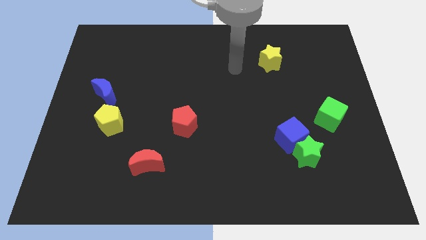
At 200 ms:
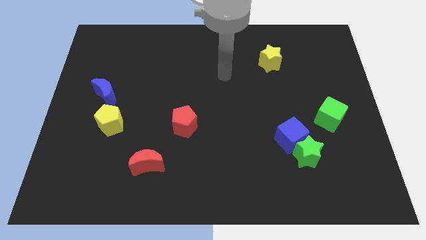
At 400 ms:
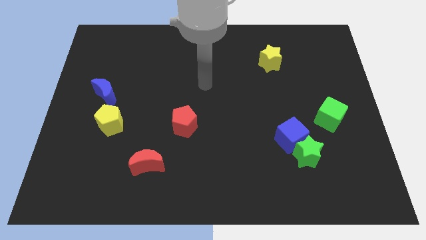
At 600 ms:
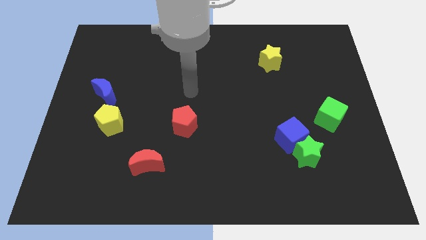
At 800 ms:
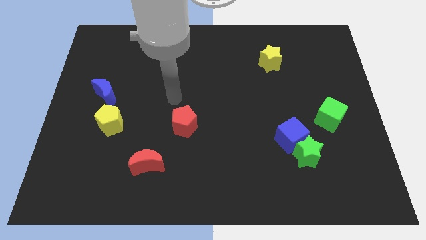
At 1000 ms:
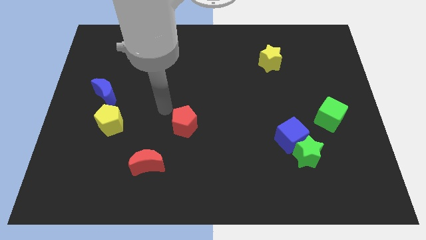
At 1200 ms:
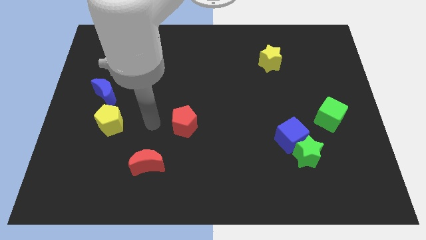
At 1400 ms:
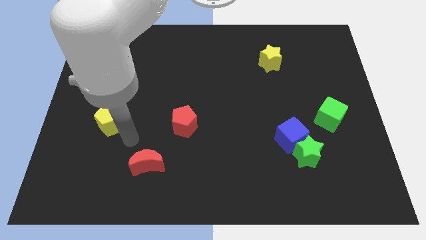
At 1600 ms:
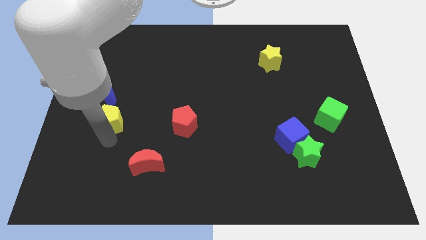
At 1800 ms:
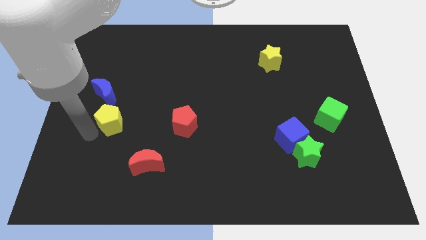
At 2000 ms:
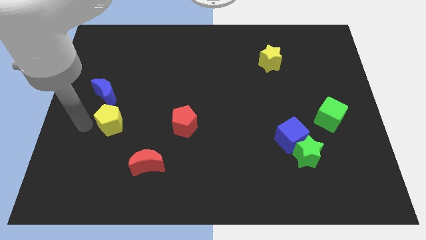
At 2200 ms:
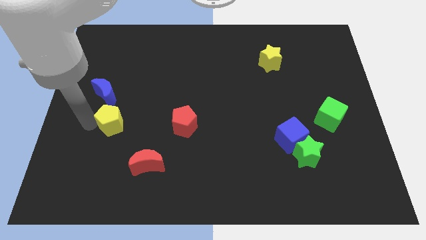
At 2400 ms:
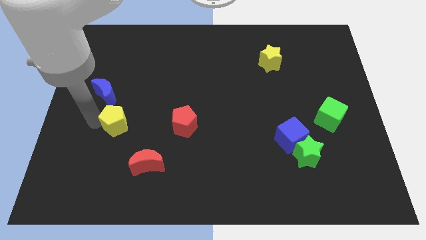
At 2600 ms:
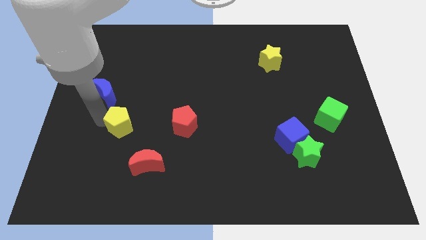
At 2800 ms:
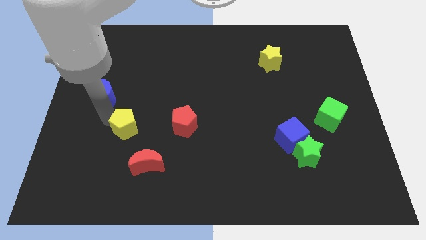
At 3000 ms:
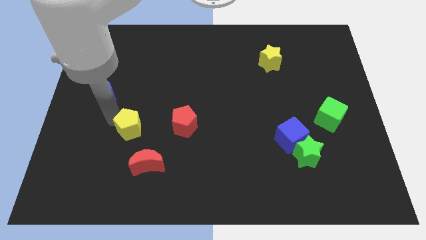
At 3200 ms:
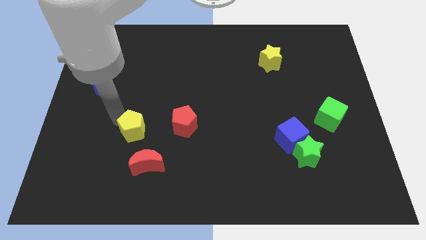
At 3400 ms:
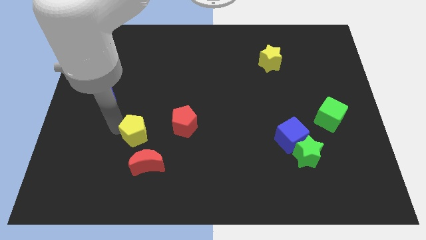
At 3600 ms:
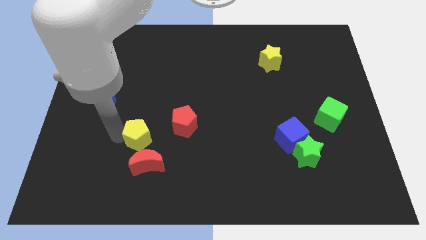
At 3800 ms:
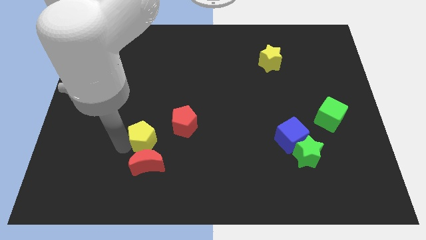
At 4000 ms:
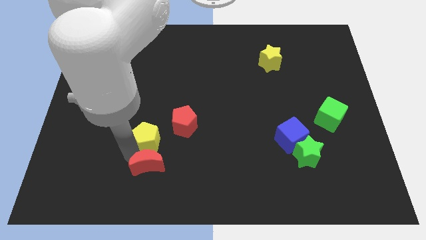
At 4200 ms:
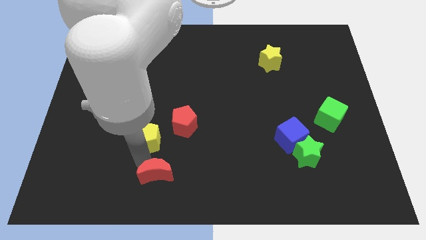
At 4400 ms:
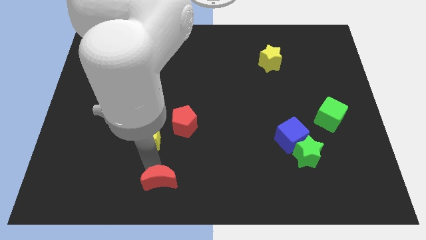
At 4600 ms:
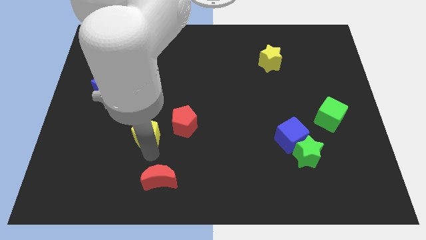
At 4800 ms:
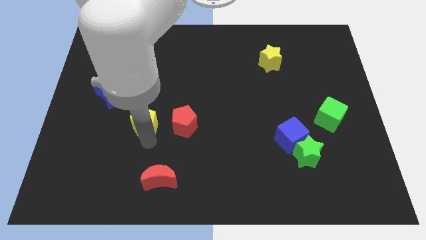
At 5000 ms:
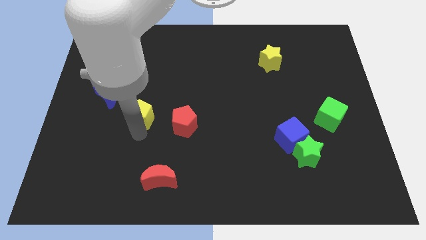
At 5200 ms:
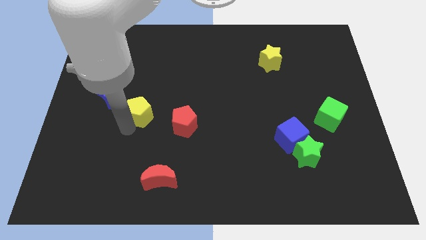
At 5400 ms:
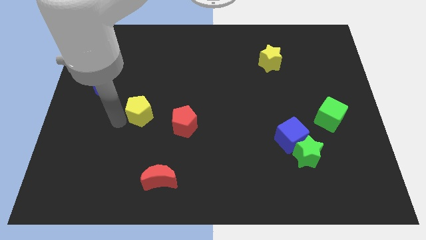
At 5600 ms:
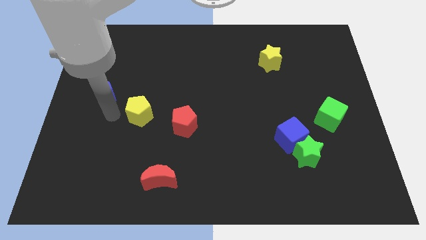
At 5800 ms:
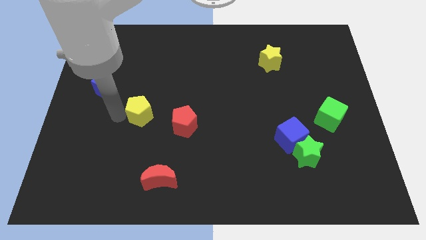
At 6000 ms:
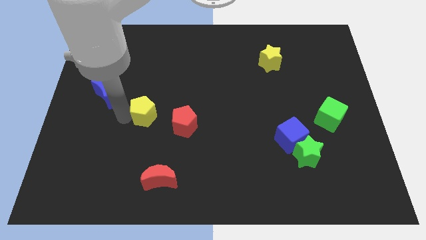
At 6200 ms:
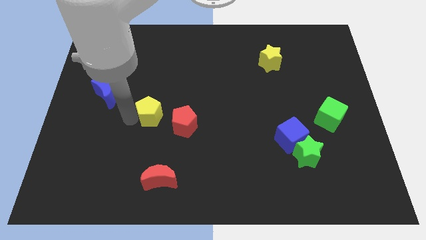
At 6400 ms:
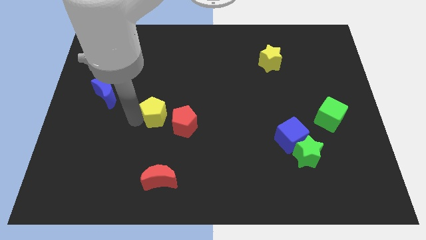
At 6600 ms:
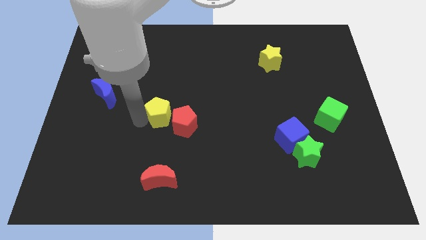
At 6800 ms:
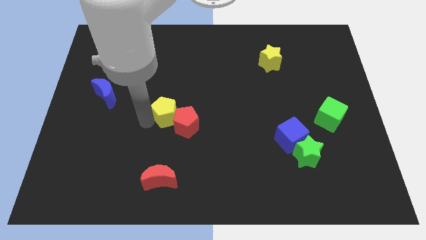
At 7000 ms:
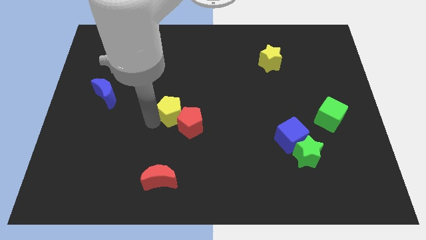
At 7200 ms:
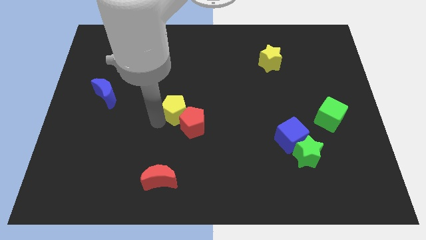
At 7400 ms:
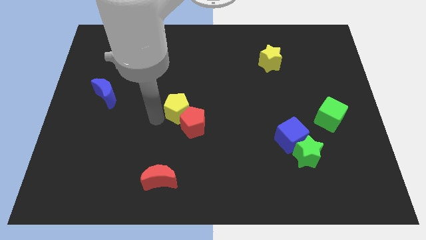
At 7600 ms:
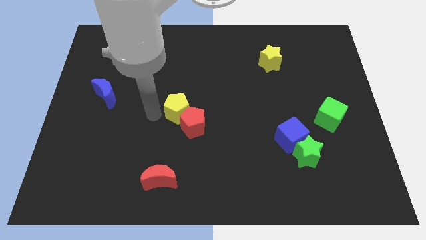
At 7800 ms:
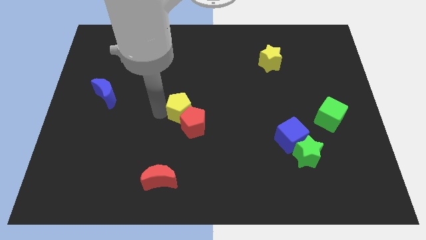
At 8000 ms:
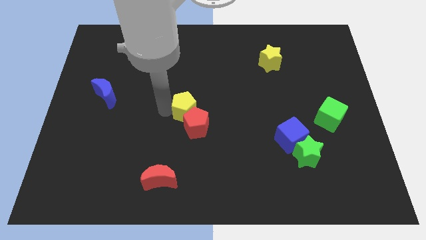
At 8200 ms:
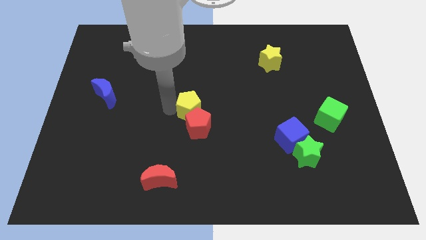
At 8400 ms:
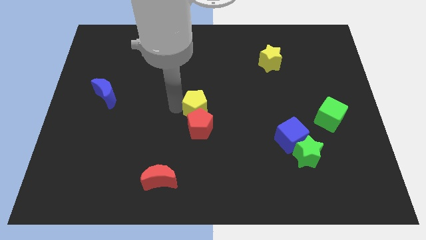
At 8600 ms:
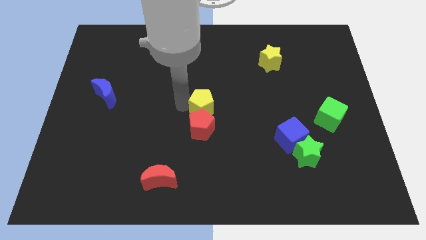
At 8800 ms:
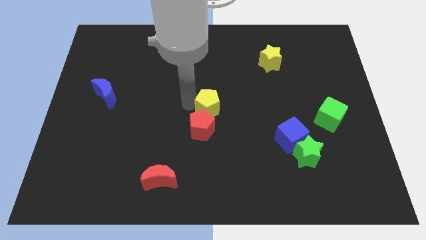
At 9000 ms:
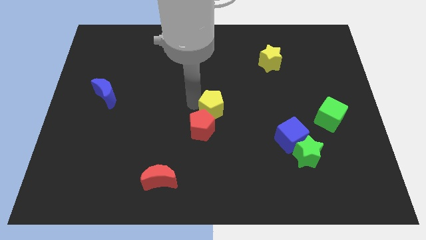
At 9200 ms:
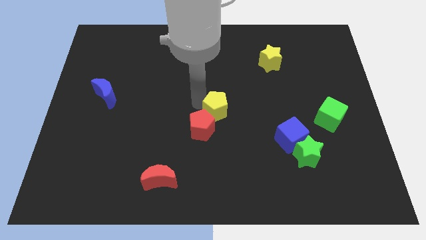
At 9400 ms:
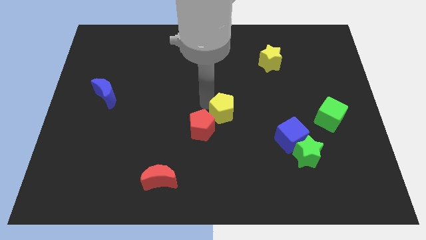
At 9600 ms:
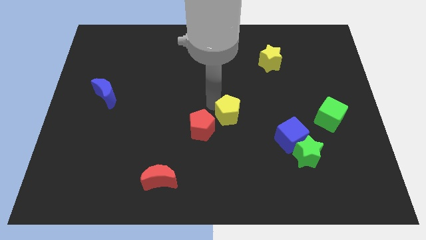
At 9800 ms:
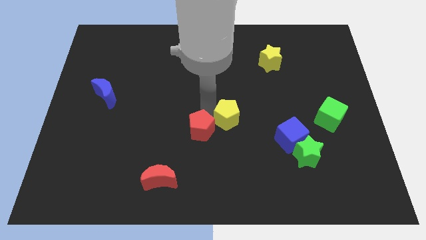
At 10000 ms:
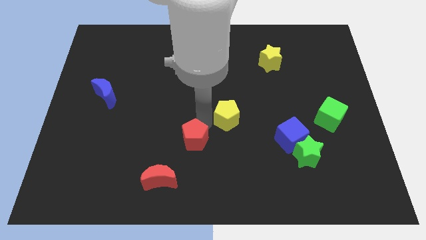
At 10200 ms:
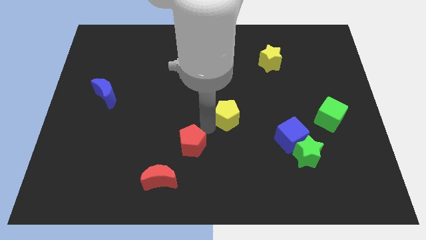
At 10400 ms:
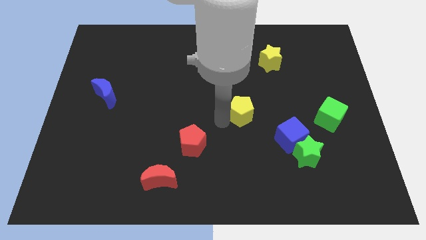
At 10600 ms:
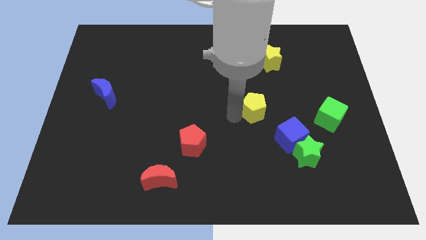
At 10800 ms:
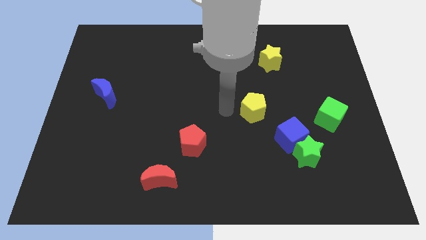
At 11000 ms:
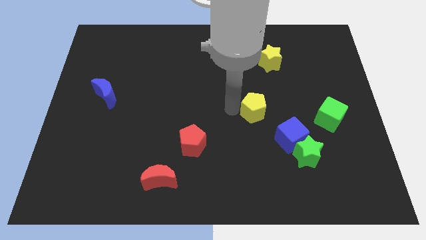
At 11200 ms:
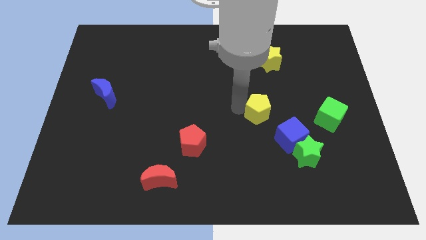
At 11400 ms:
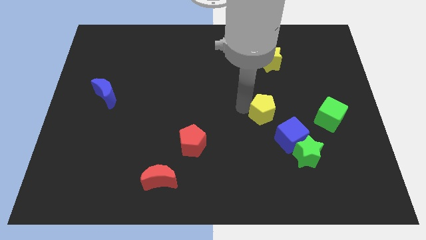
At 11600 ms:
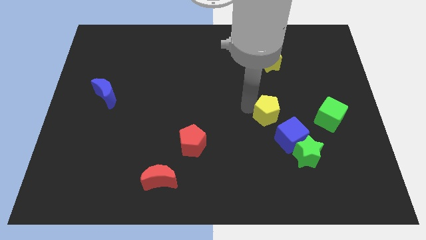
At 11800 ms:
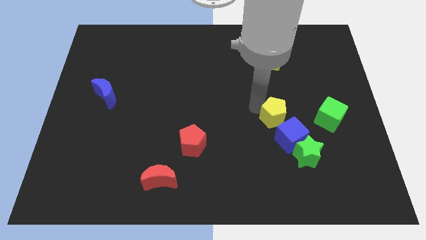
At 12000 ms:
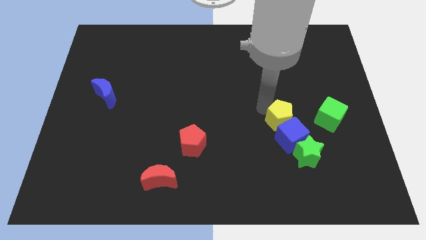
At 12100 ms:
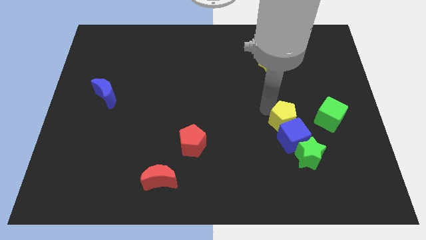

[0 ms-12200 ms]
push the yellow pentagon to the top right side of the blue cube

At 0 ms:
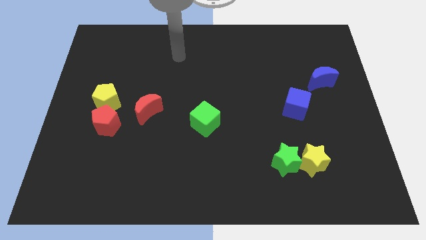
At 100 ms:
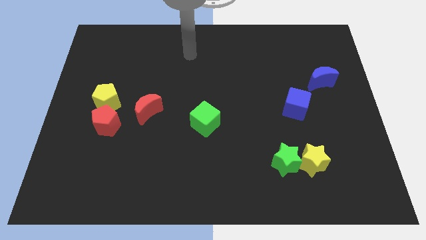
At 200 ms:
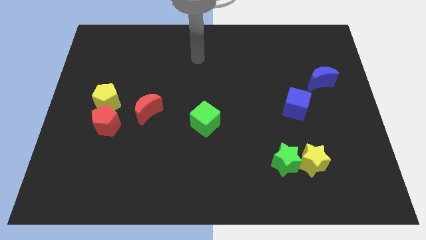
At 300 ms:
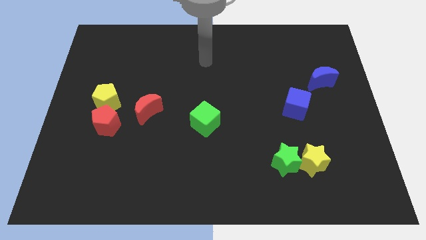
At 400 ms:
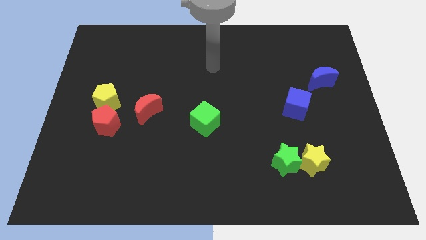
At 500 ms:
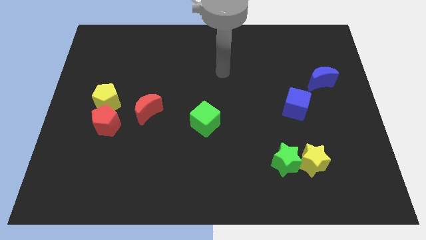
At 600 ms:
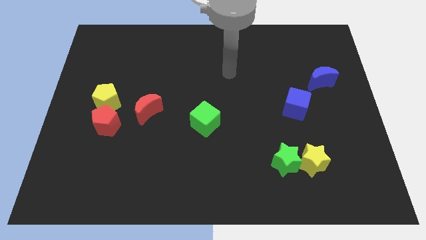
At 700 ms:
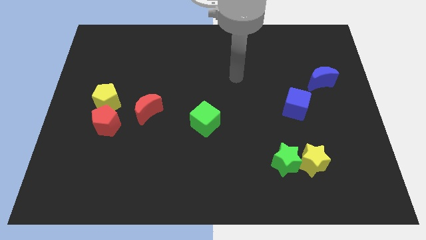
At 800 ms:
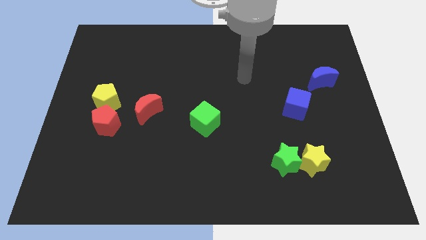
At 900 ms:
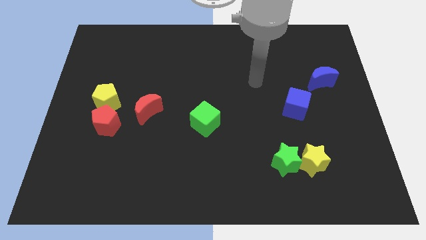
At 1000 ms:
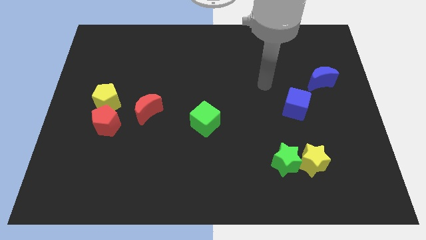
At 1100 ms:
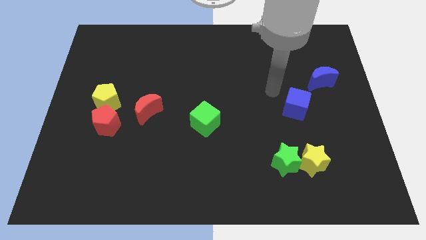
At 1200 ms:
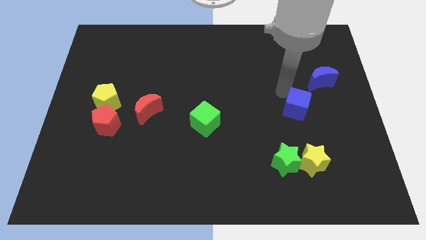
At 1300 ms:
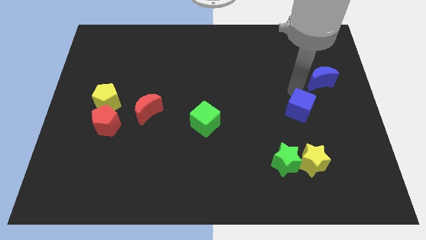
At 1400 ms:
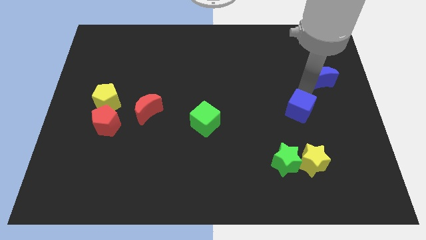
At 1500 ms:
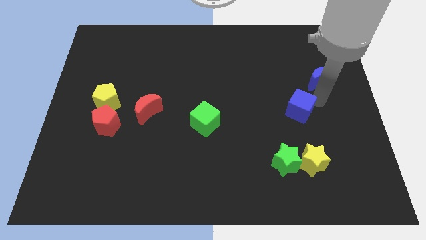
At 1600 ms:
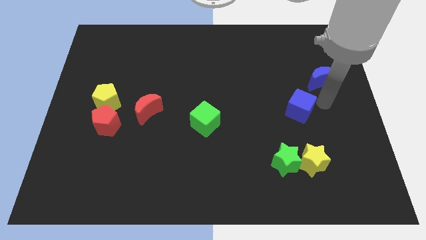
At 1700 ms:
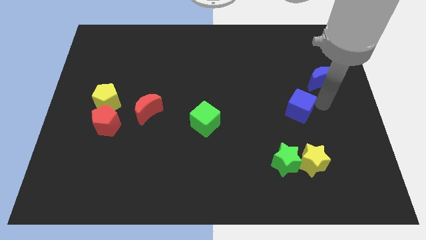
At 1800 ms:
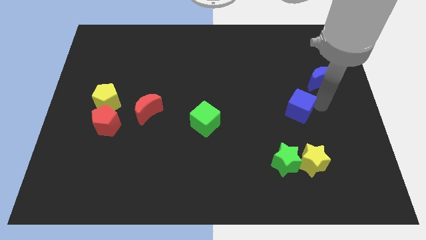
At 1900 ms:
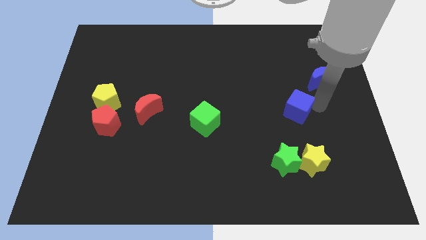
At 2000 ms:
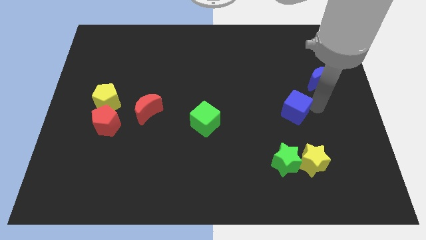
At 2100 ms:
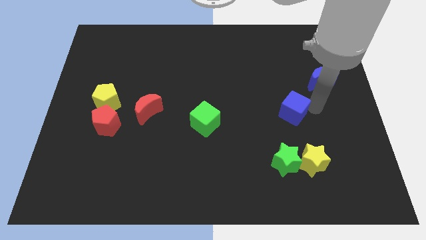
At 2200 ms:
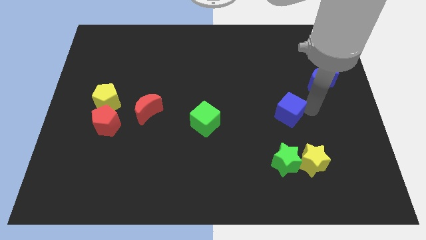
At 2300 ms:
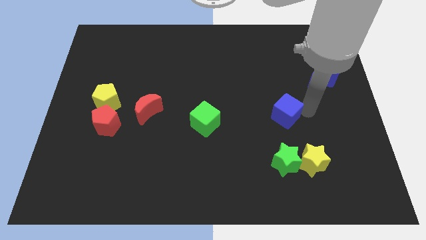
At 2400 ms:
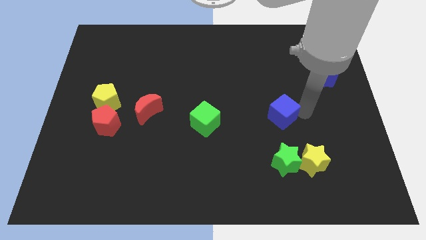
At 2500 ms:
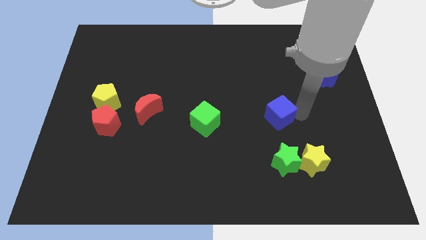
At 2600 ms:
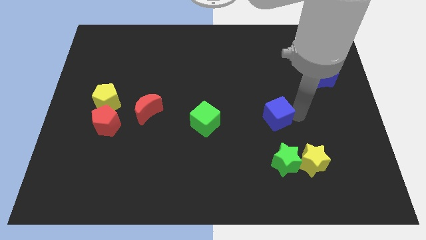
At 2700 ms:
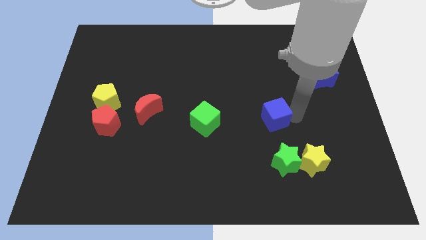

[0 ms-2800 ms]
move the blue cube right of the green cube
